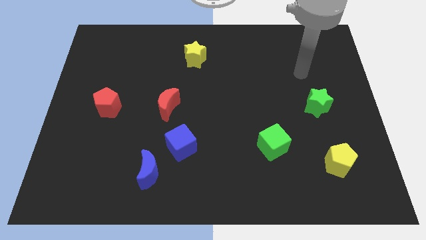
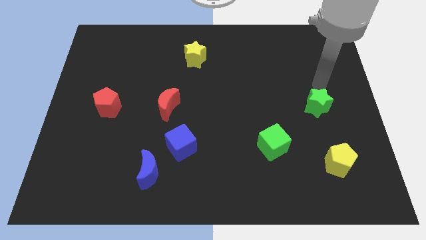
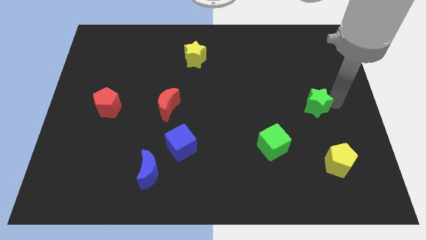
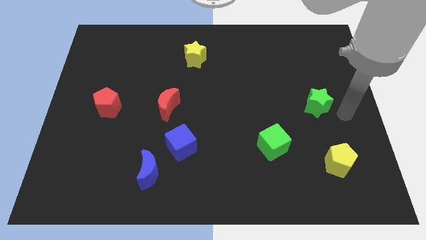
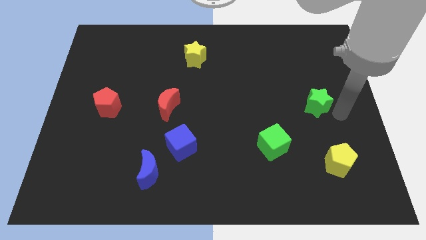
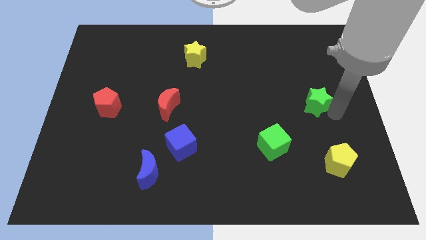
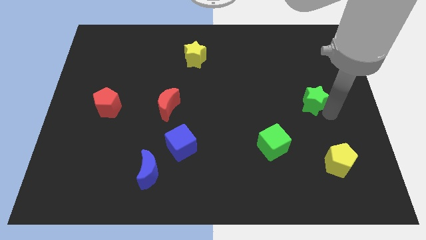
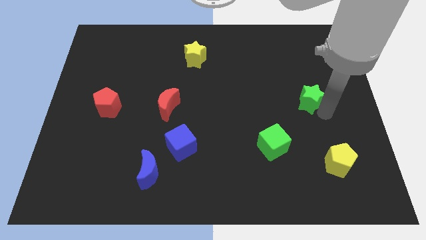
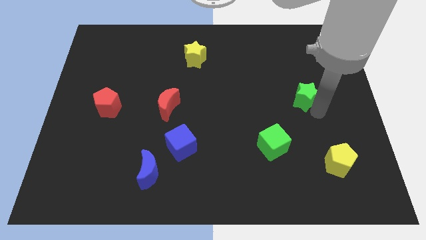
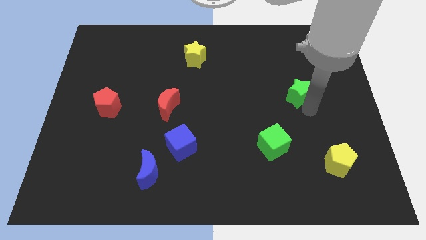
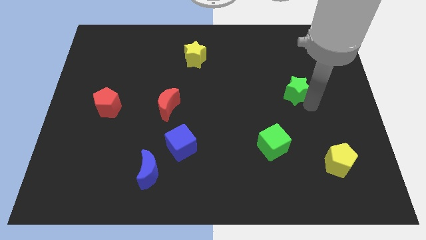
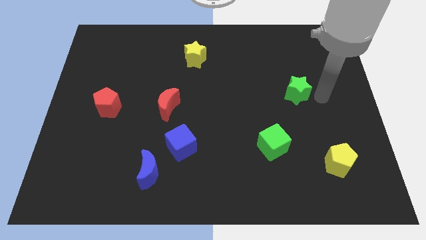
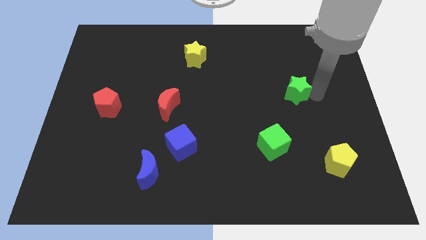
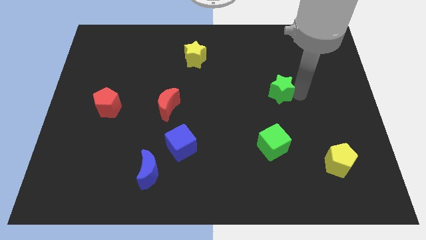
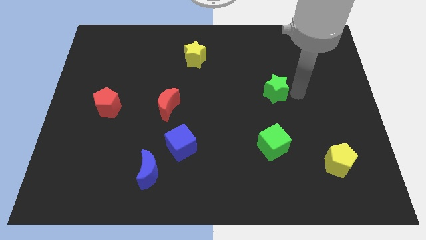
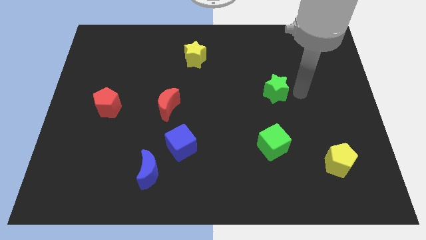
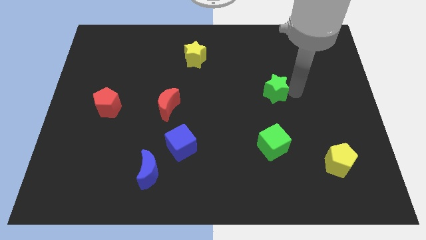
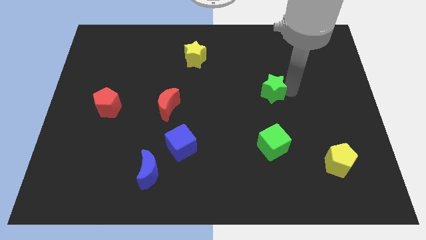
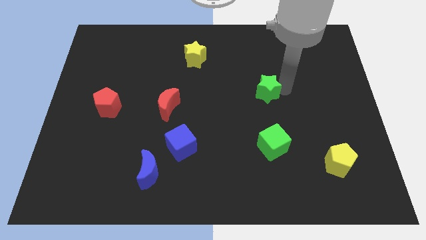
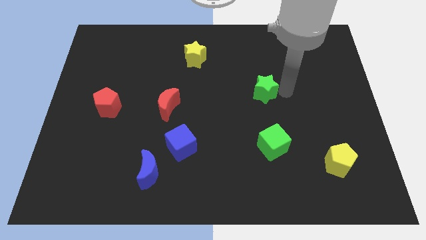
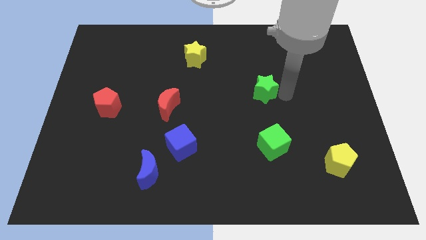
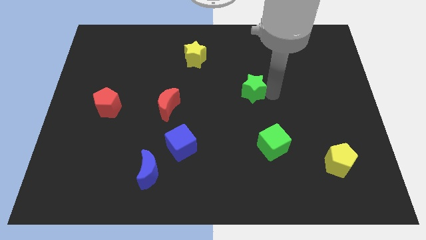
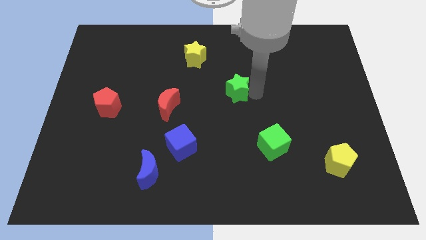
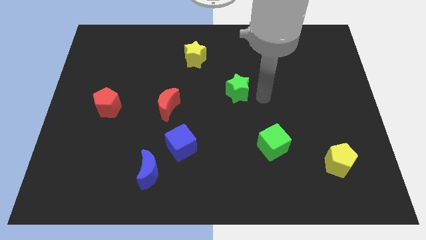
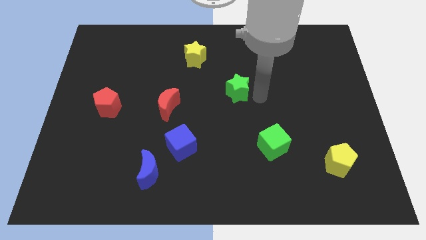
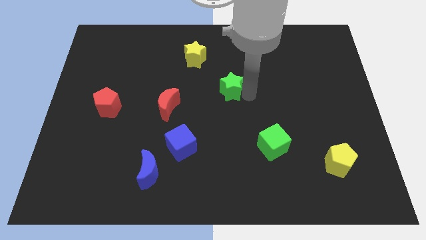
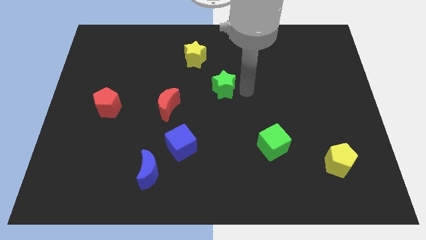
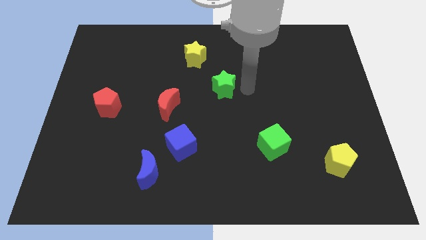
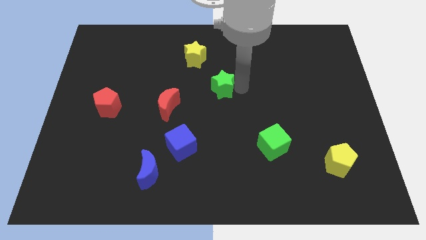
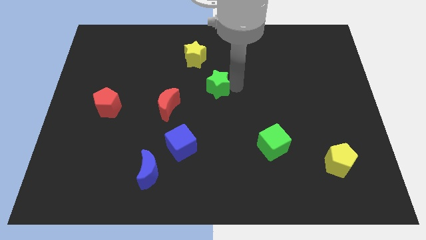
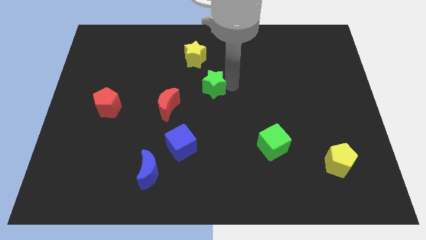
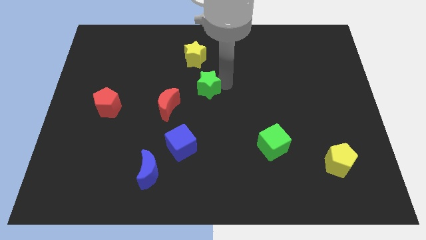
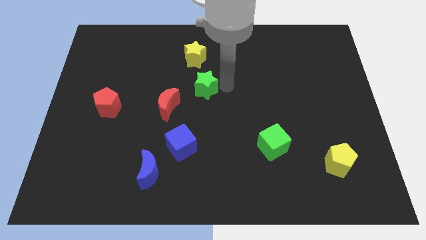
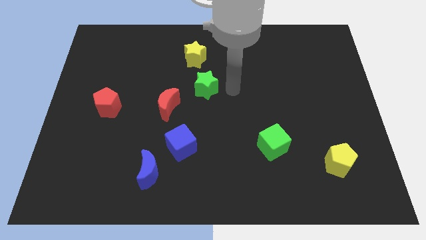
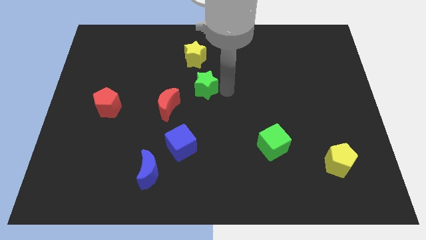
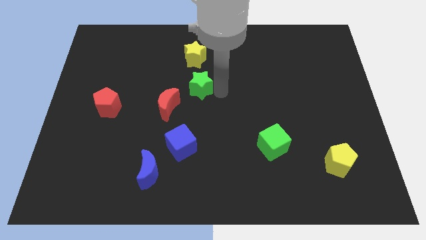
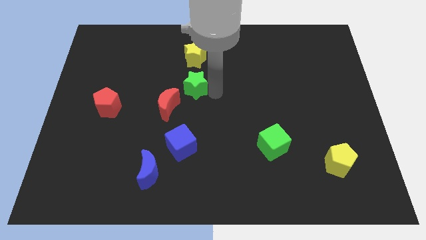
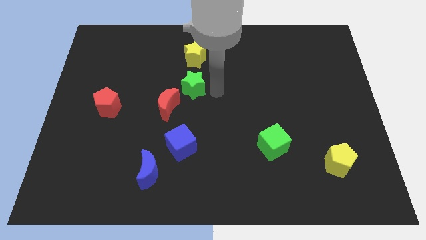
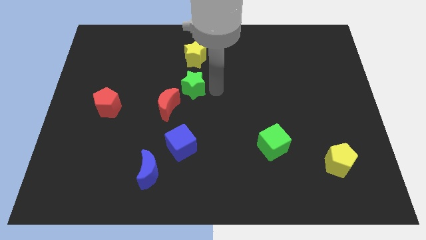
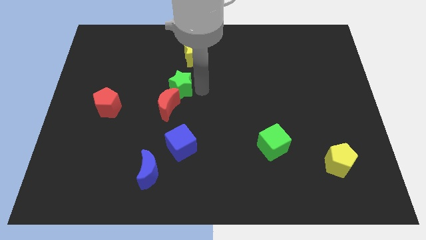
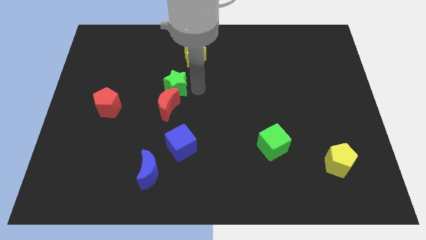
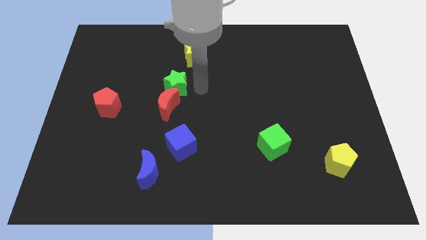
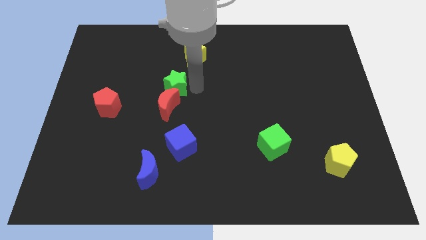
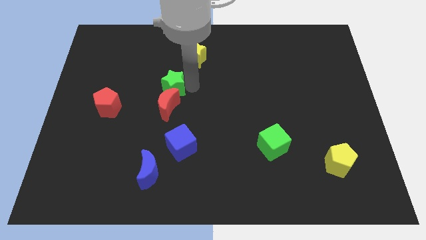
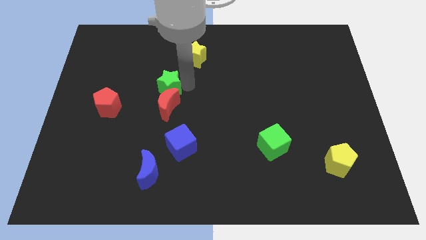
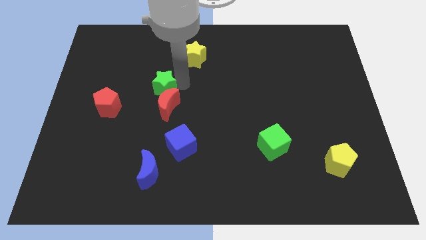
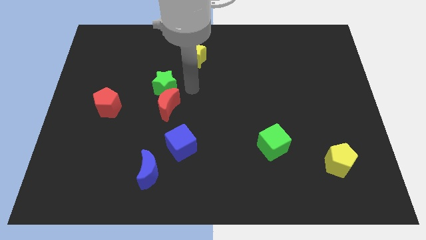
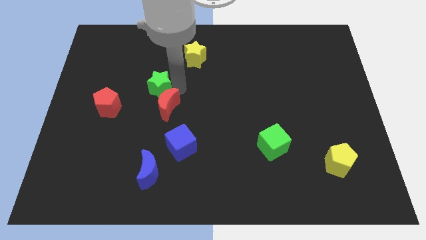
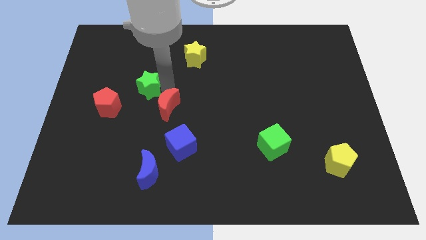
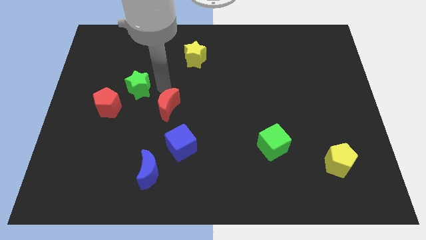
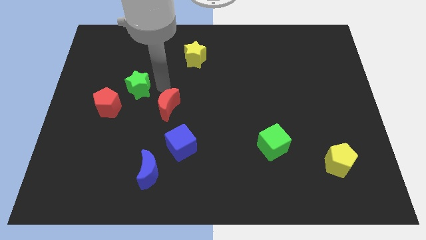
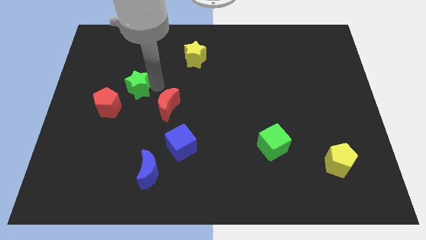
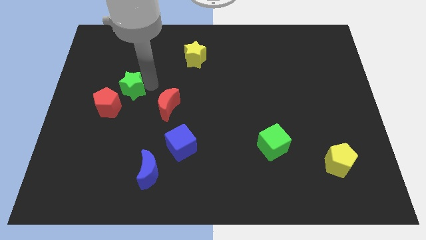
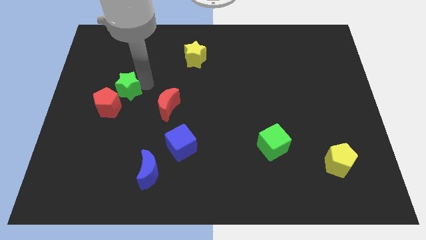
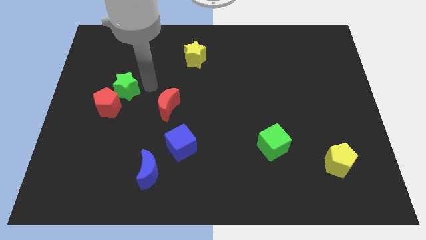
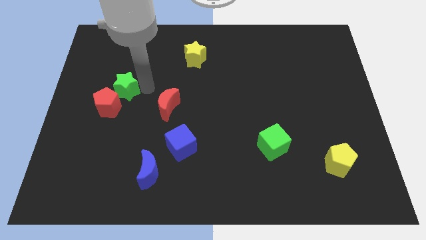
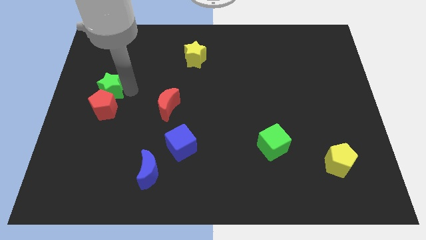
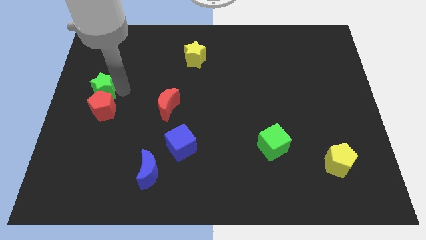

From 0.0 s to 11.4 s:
push the green star to the left side
